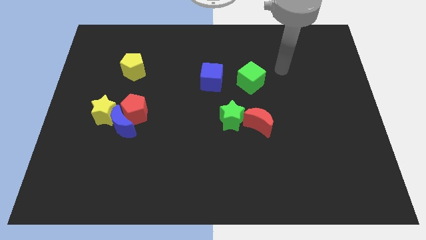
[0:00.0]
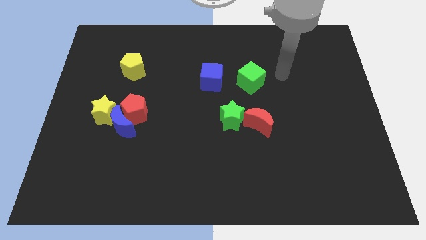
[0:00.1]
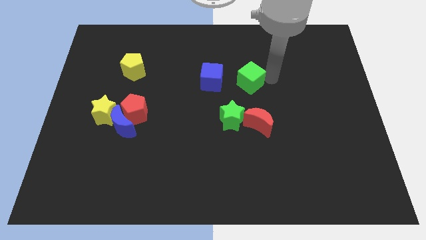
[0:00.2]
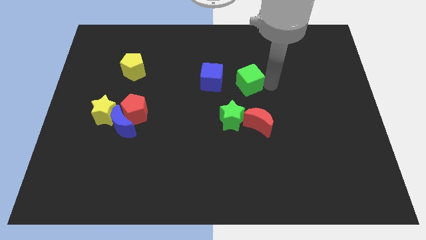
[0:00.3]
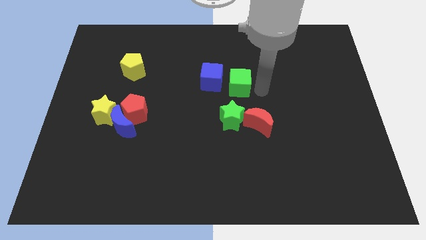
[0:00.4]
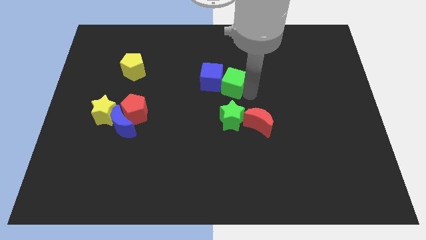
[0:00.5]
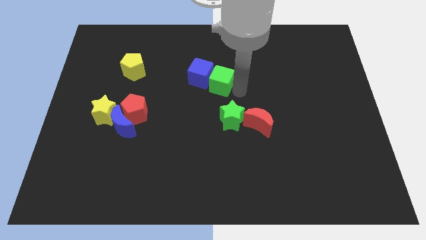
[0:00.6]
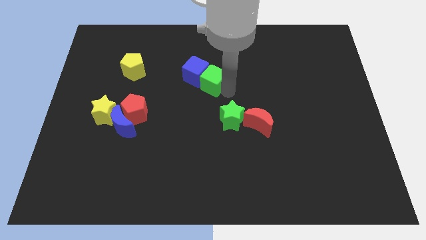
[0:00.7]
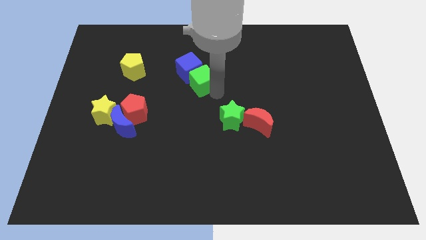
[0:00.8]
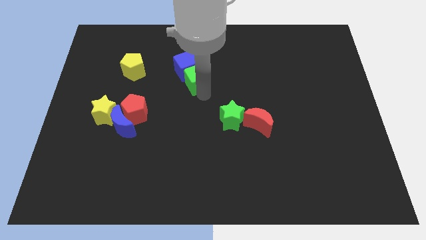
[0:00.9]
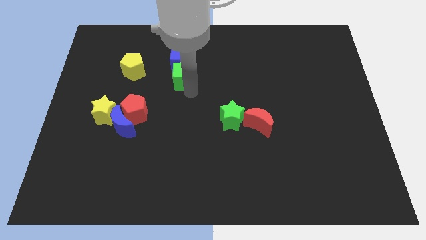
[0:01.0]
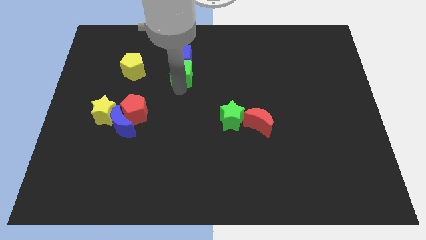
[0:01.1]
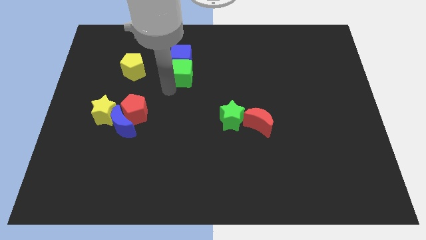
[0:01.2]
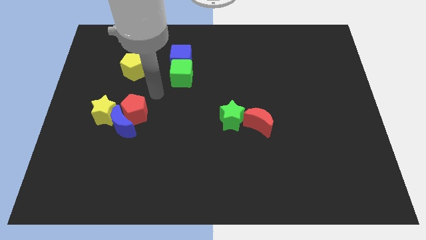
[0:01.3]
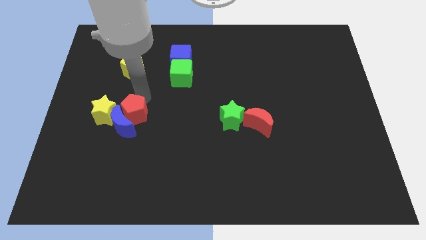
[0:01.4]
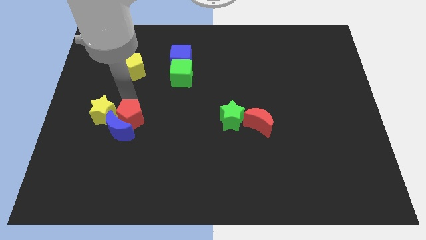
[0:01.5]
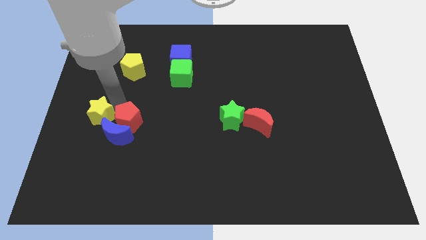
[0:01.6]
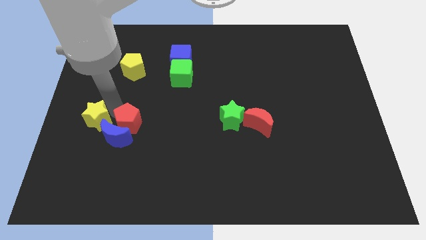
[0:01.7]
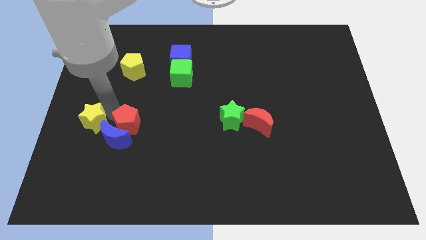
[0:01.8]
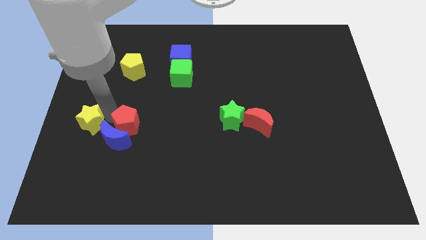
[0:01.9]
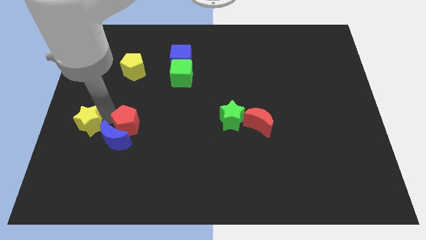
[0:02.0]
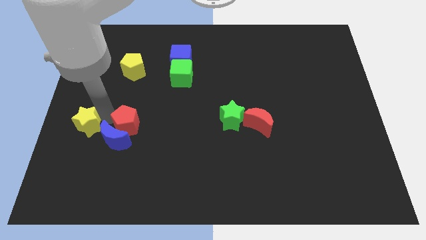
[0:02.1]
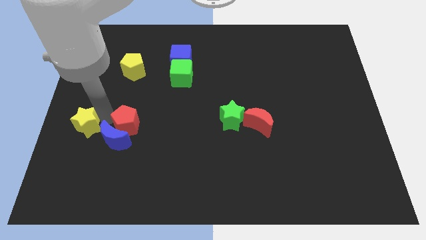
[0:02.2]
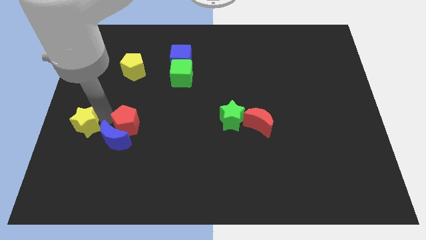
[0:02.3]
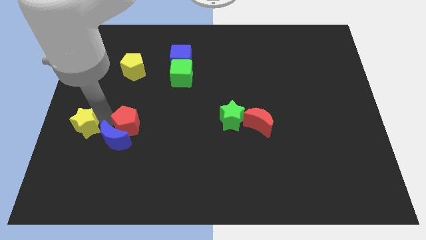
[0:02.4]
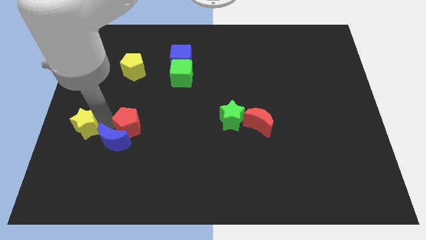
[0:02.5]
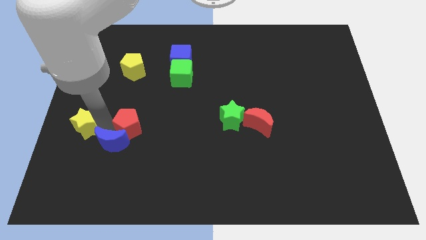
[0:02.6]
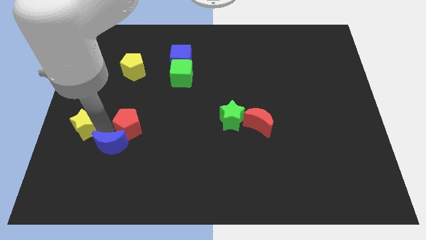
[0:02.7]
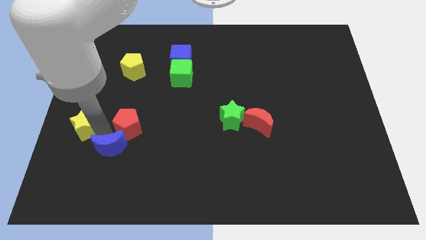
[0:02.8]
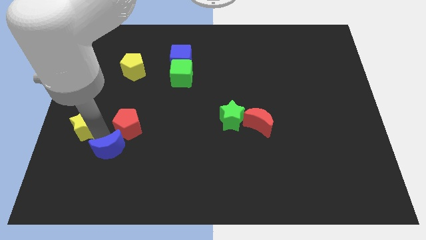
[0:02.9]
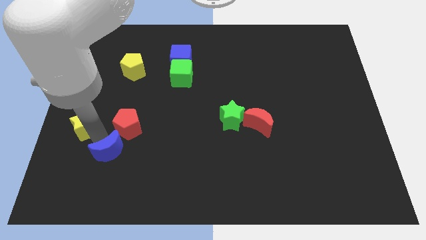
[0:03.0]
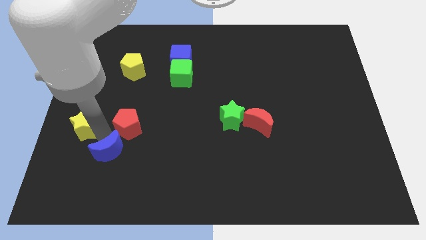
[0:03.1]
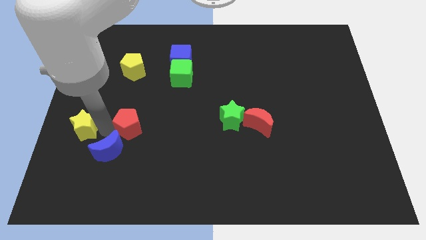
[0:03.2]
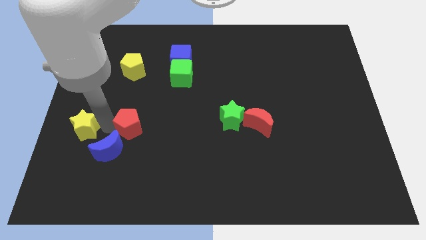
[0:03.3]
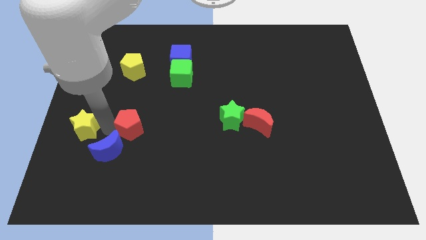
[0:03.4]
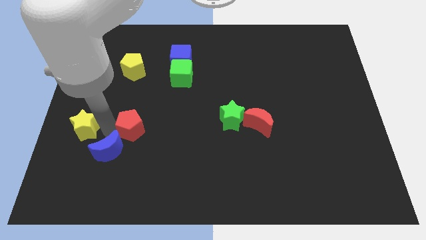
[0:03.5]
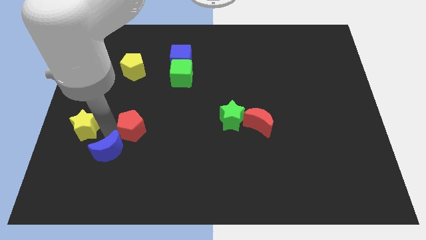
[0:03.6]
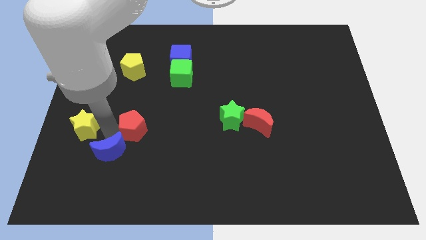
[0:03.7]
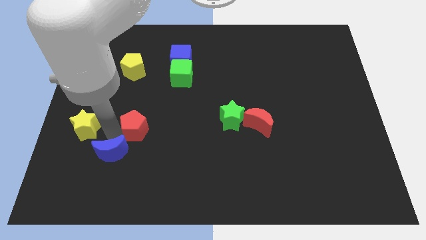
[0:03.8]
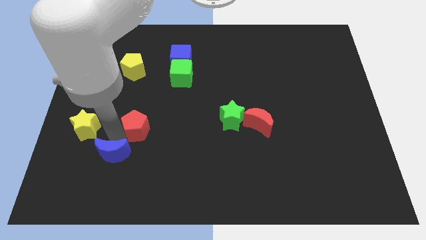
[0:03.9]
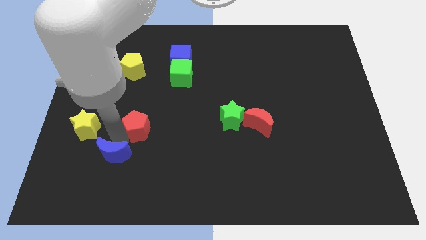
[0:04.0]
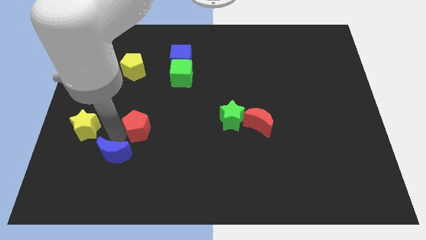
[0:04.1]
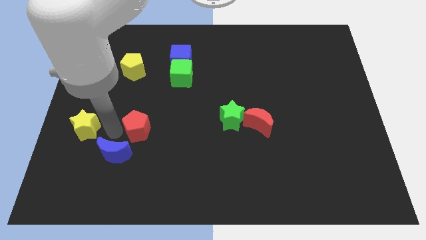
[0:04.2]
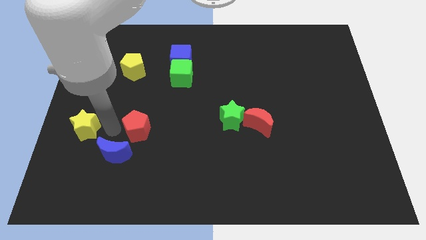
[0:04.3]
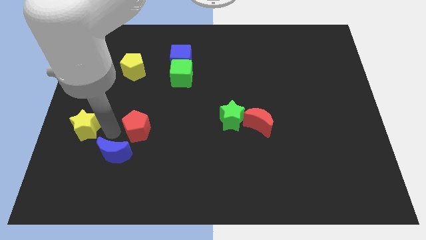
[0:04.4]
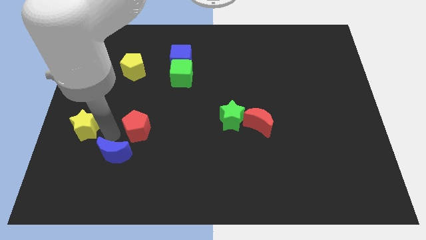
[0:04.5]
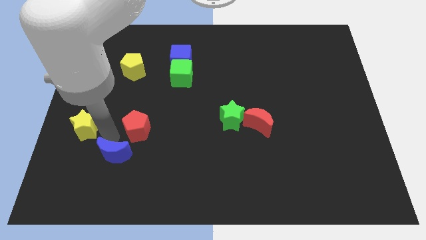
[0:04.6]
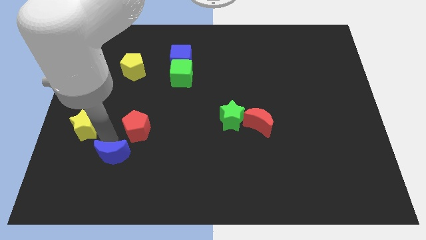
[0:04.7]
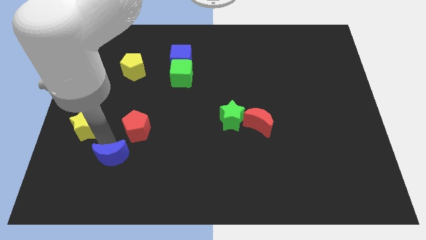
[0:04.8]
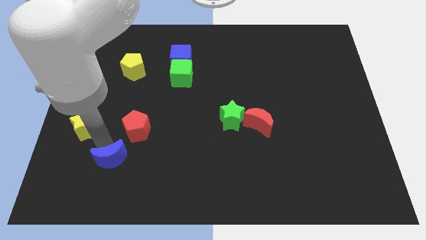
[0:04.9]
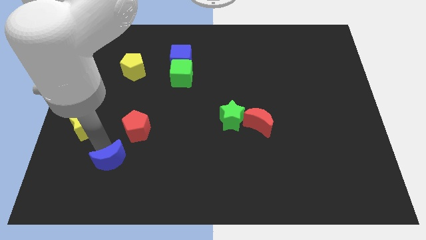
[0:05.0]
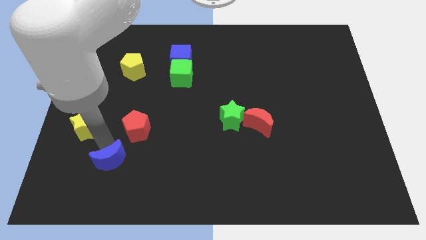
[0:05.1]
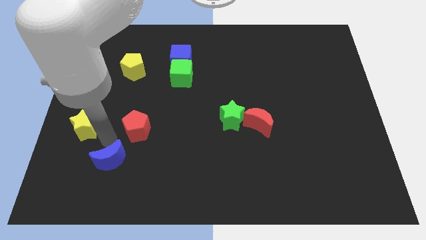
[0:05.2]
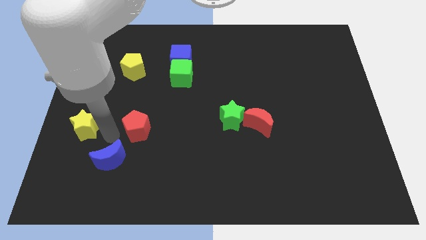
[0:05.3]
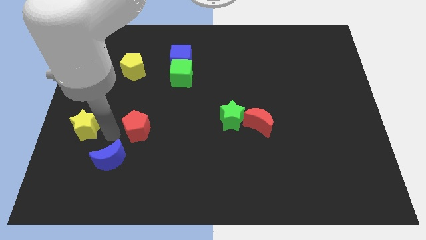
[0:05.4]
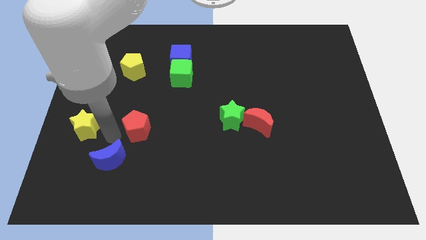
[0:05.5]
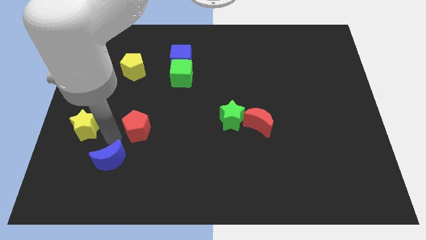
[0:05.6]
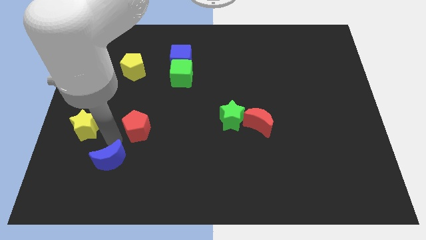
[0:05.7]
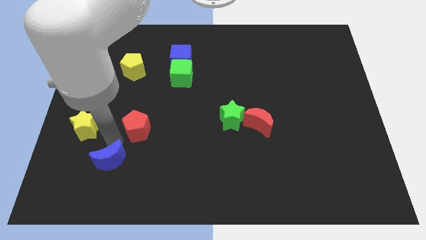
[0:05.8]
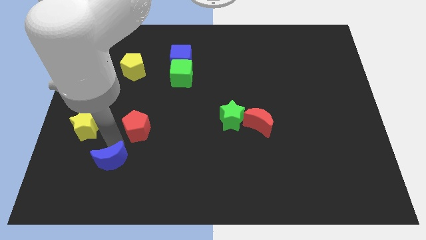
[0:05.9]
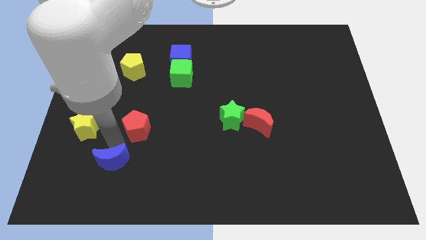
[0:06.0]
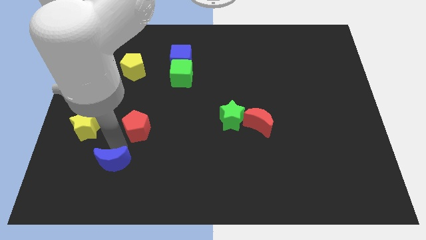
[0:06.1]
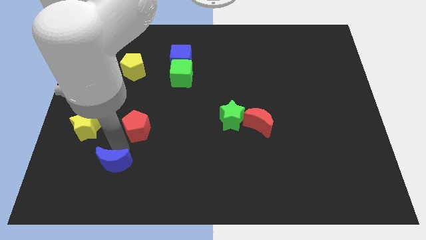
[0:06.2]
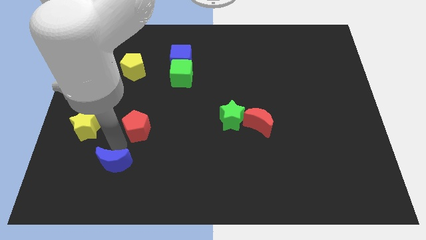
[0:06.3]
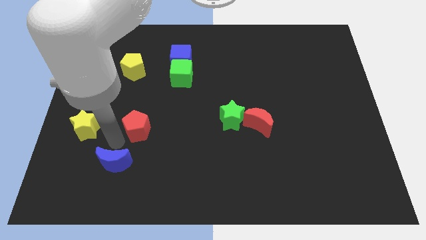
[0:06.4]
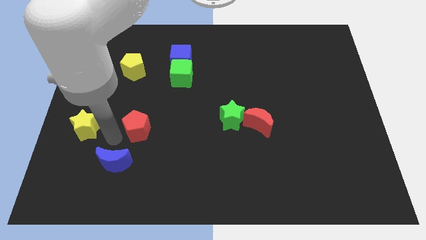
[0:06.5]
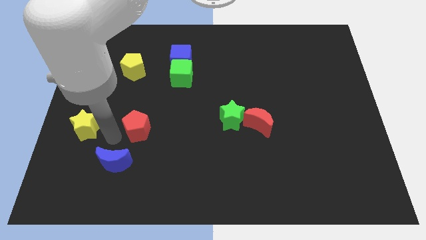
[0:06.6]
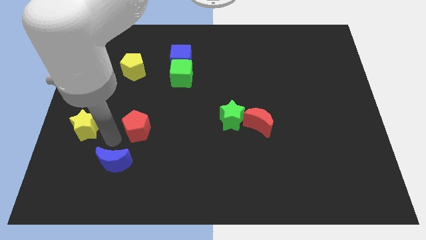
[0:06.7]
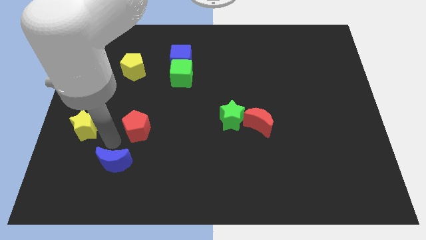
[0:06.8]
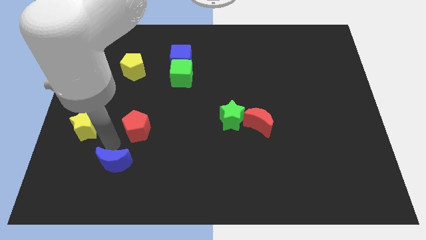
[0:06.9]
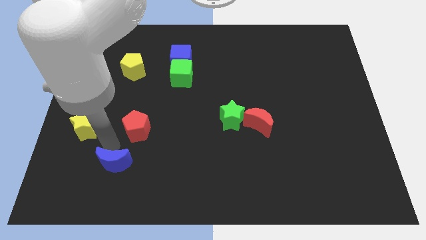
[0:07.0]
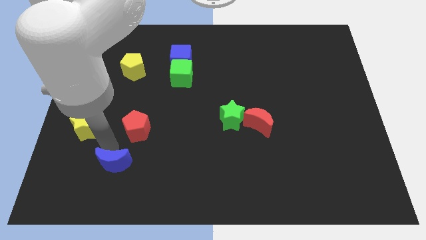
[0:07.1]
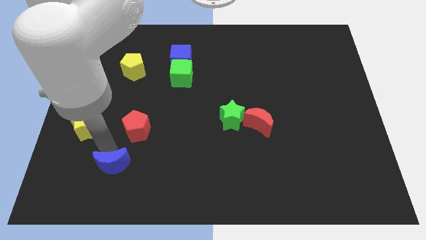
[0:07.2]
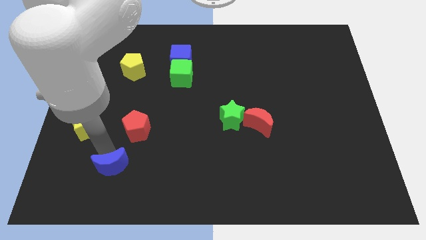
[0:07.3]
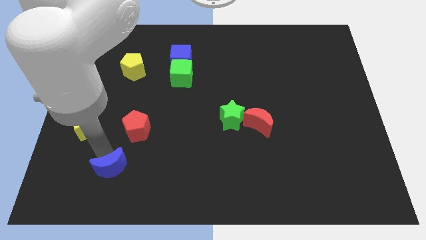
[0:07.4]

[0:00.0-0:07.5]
separate the blue moon from the red pentagon and yellow star

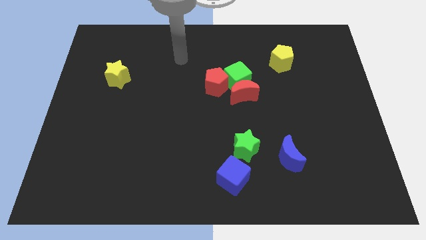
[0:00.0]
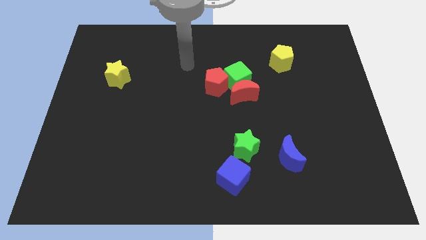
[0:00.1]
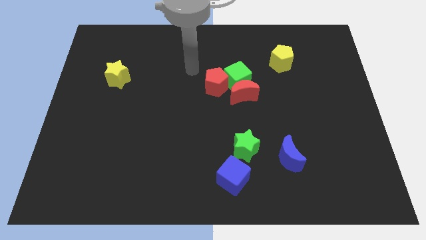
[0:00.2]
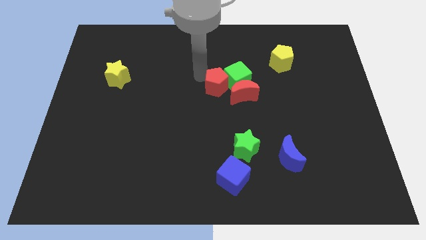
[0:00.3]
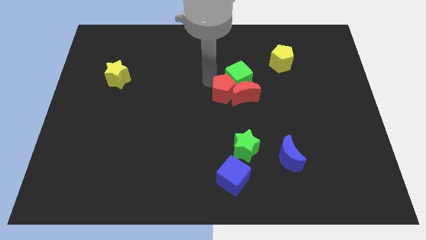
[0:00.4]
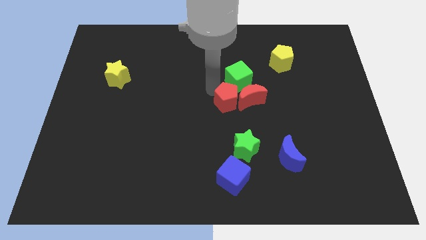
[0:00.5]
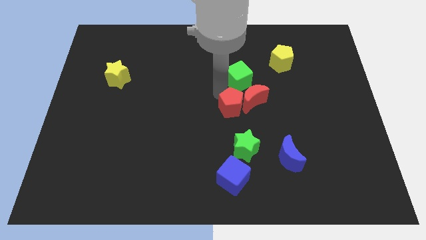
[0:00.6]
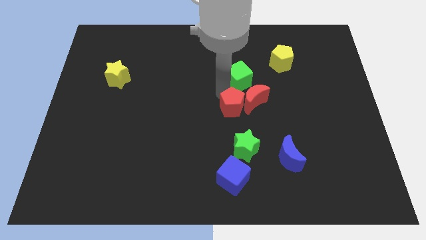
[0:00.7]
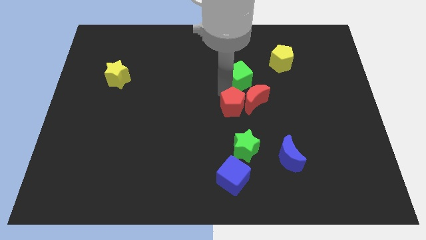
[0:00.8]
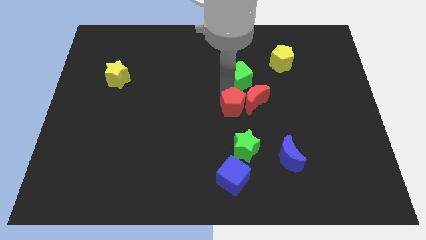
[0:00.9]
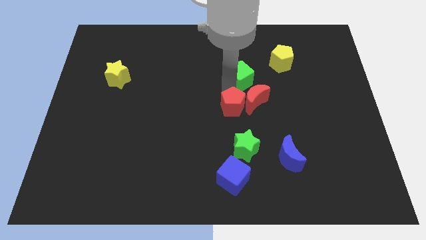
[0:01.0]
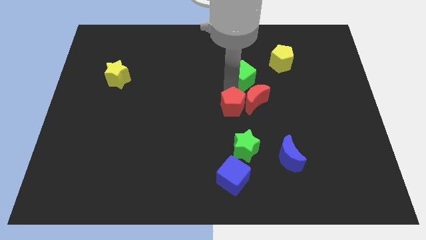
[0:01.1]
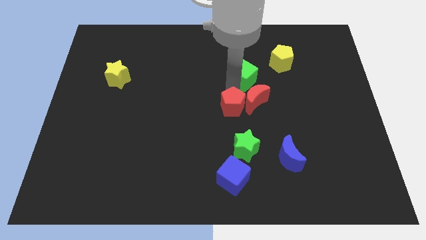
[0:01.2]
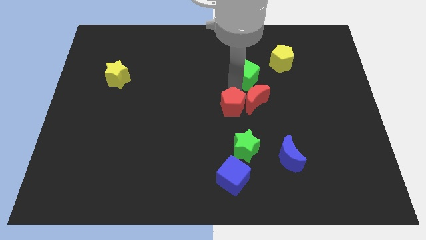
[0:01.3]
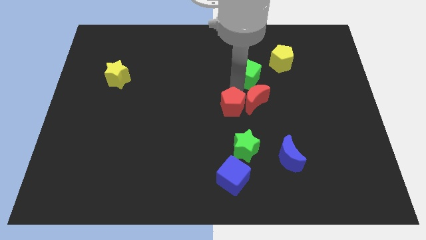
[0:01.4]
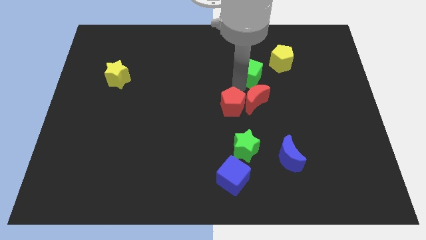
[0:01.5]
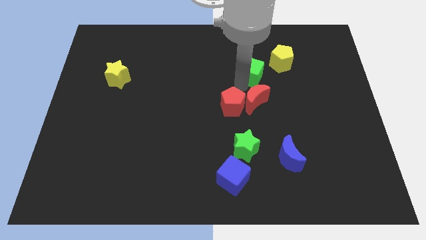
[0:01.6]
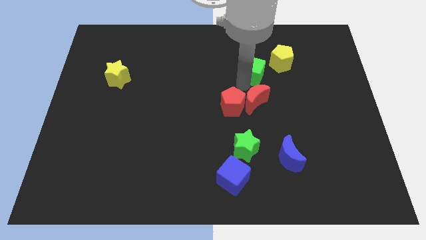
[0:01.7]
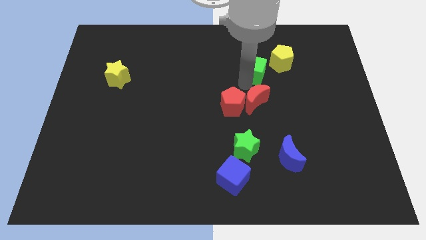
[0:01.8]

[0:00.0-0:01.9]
move the green cube away from the red moon and red pentagon
